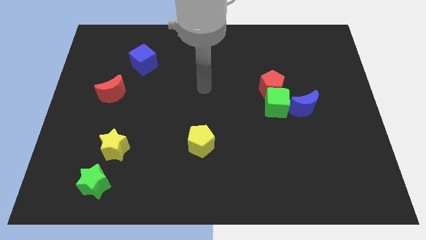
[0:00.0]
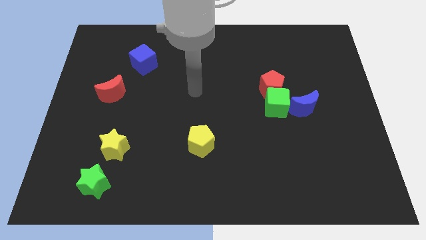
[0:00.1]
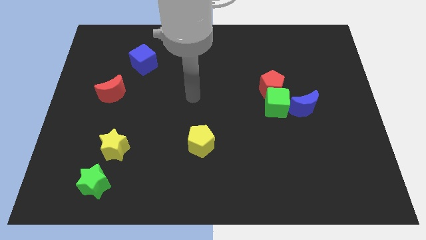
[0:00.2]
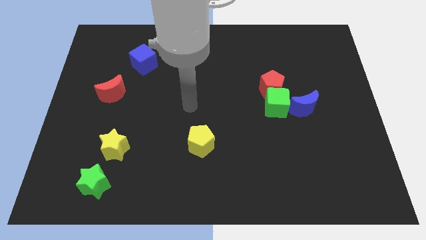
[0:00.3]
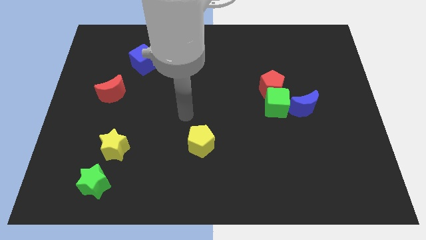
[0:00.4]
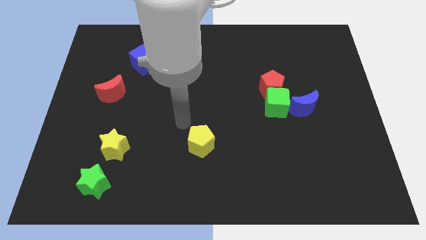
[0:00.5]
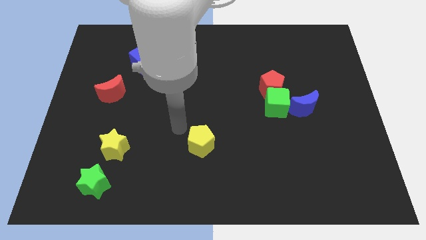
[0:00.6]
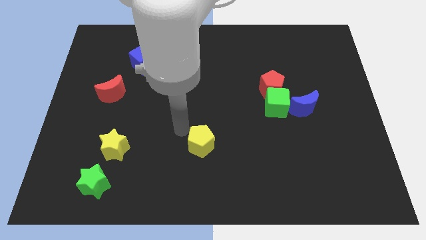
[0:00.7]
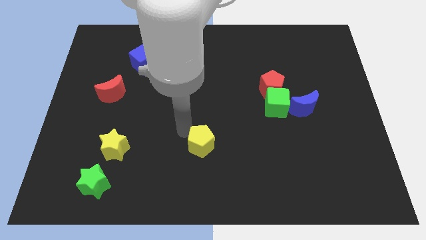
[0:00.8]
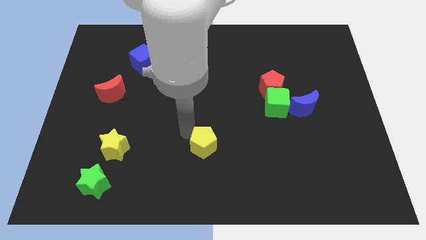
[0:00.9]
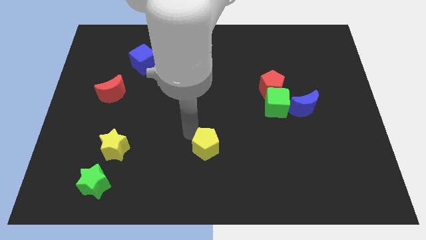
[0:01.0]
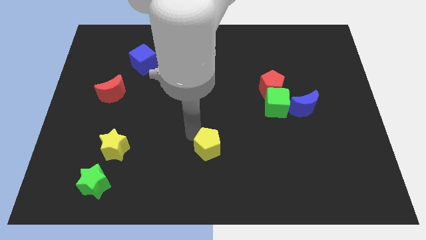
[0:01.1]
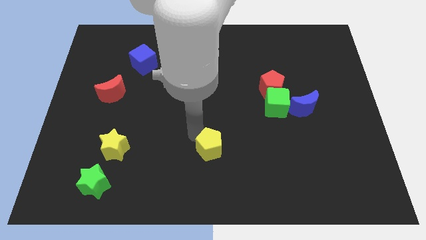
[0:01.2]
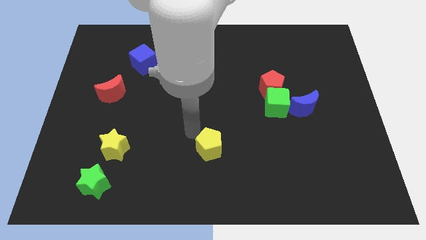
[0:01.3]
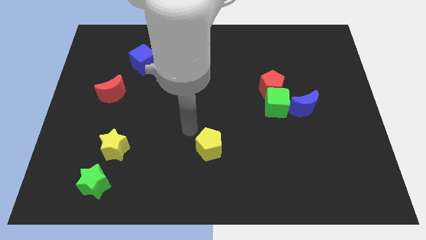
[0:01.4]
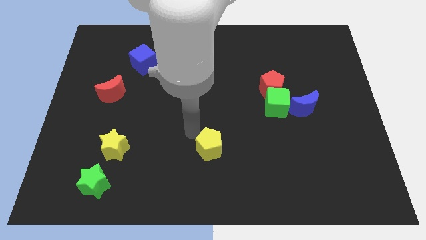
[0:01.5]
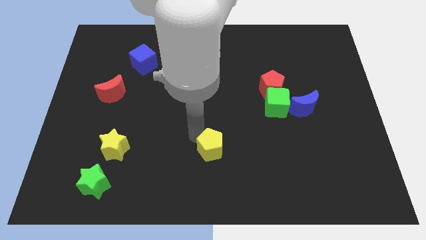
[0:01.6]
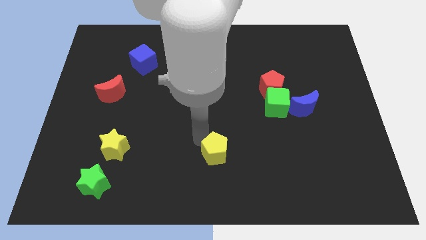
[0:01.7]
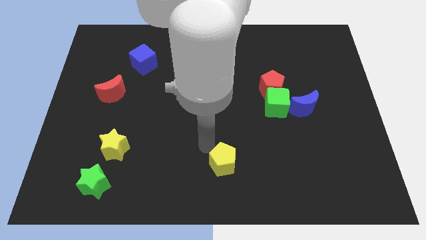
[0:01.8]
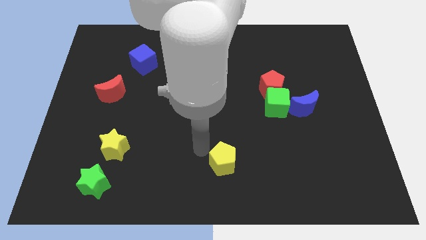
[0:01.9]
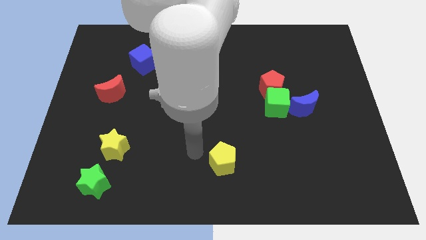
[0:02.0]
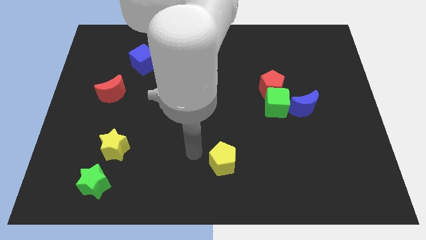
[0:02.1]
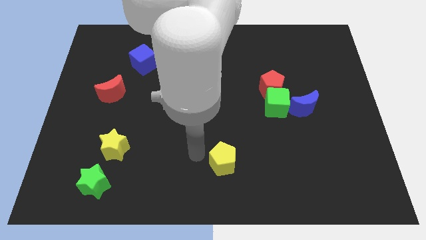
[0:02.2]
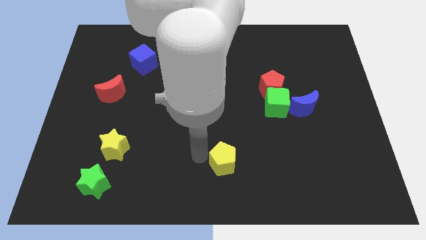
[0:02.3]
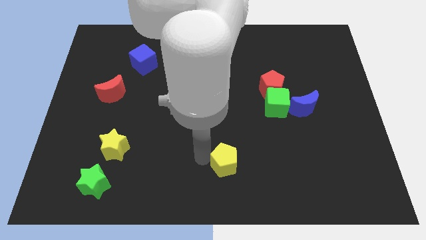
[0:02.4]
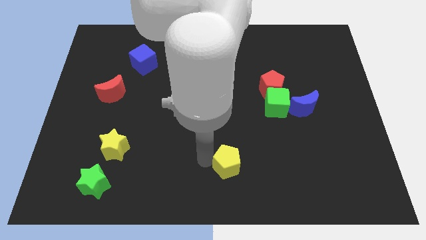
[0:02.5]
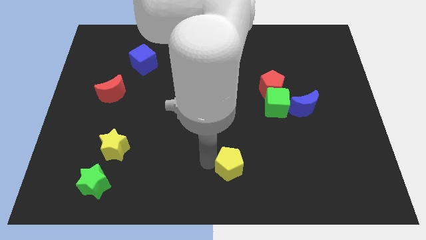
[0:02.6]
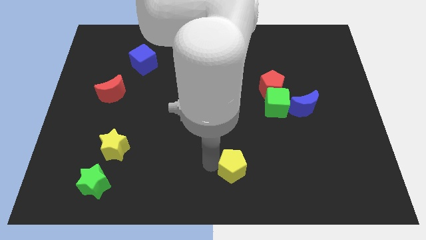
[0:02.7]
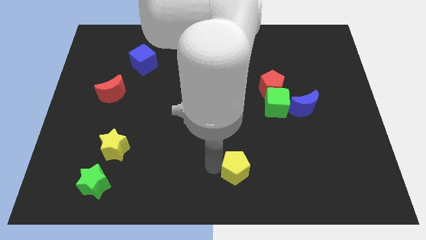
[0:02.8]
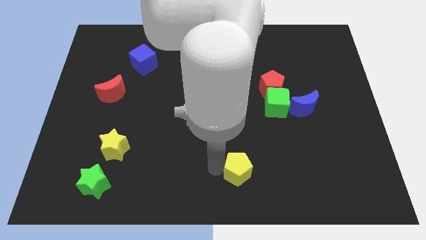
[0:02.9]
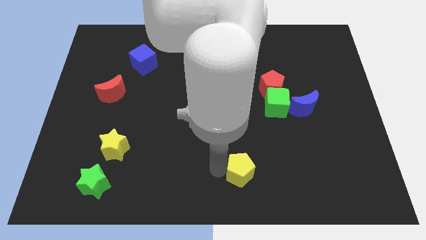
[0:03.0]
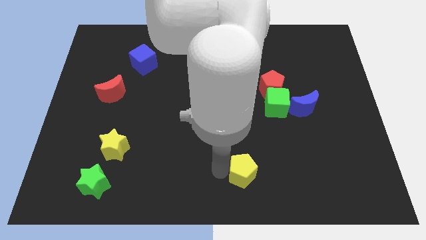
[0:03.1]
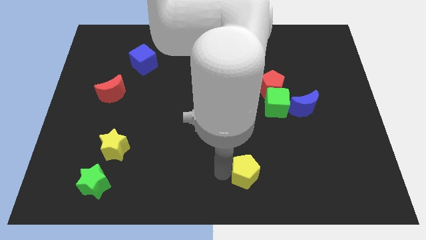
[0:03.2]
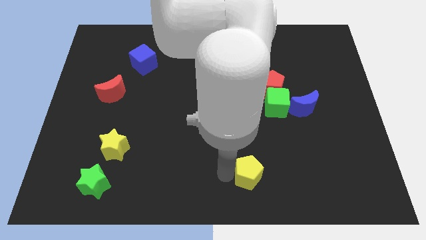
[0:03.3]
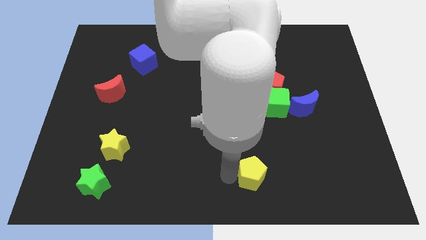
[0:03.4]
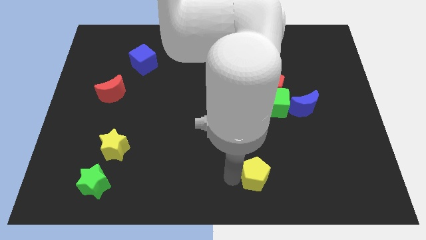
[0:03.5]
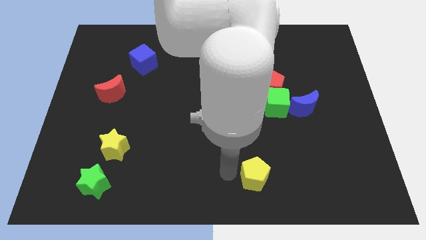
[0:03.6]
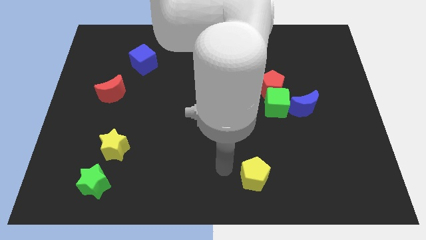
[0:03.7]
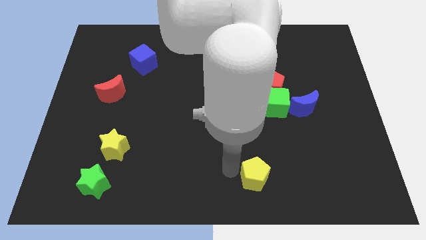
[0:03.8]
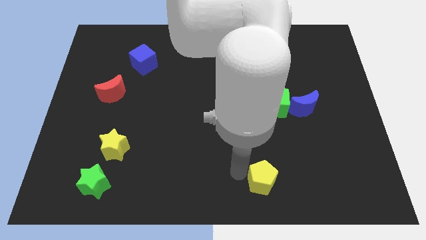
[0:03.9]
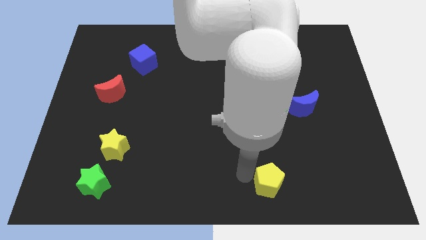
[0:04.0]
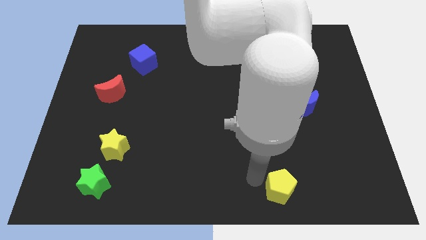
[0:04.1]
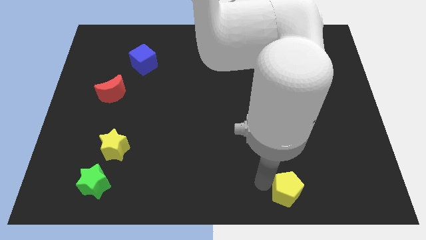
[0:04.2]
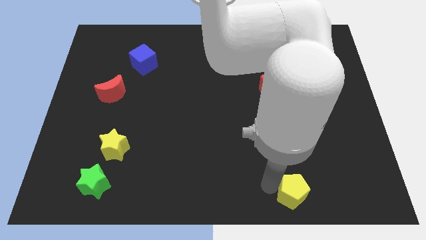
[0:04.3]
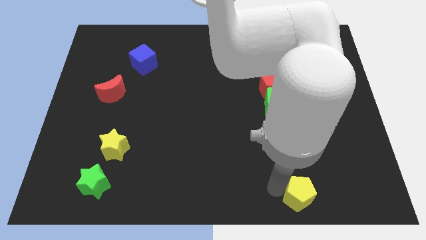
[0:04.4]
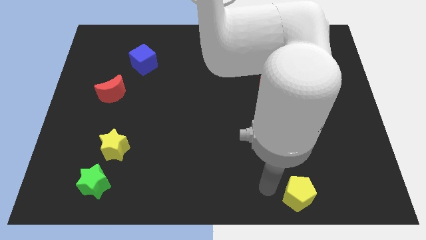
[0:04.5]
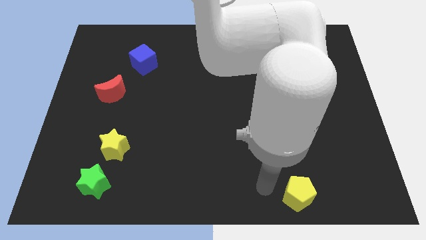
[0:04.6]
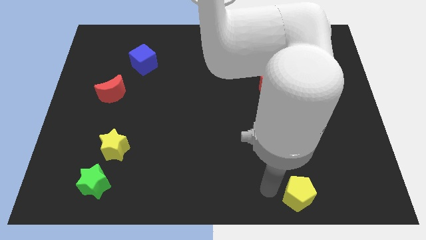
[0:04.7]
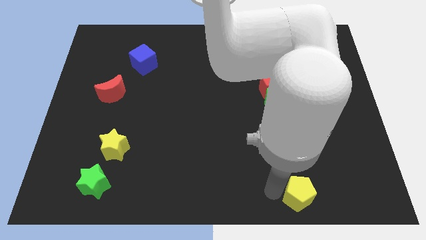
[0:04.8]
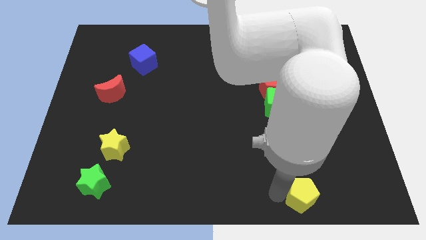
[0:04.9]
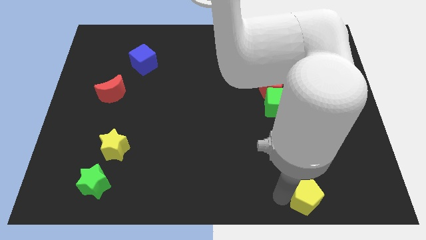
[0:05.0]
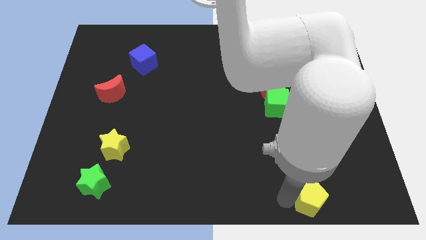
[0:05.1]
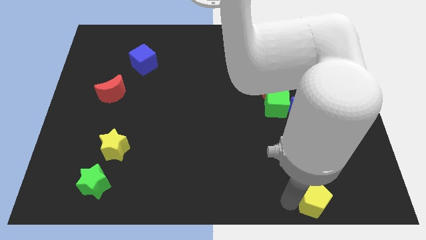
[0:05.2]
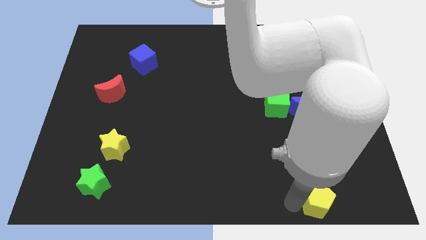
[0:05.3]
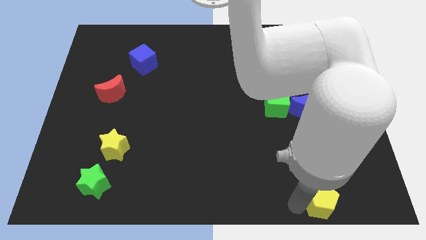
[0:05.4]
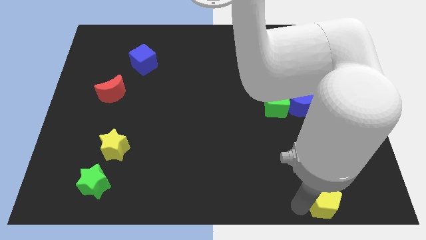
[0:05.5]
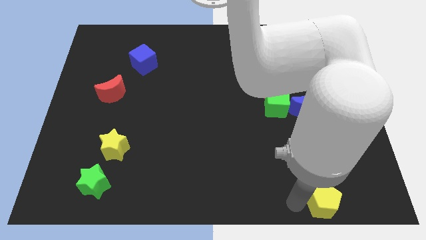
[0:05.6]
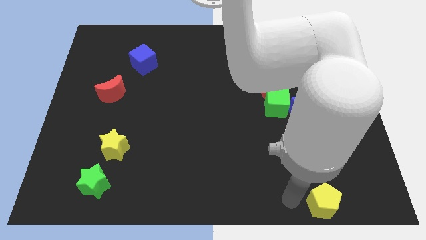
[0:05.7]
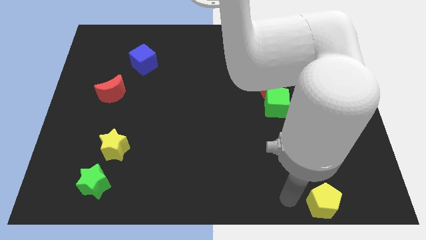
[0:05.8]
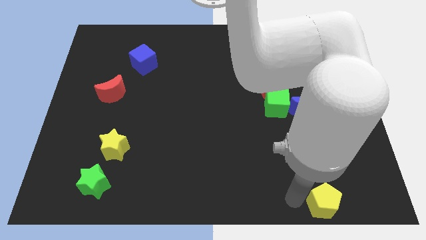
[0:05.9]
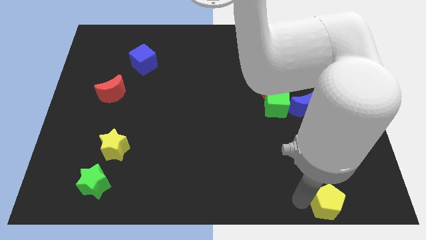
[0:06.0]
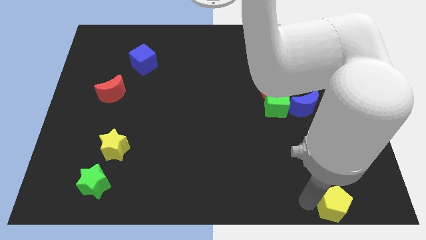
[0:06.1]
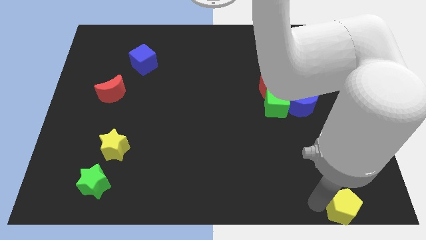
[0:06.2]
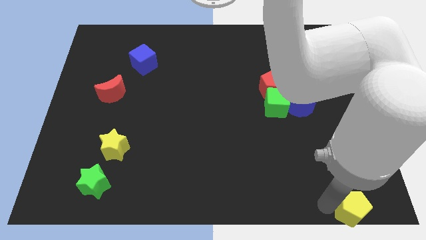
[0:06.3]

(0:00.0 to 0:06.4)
put the yellow pentagon to the bottom right of the board

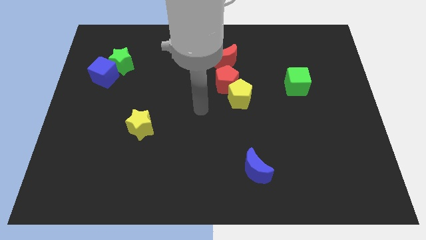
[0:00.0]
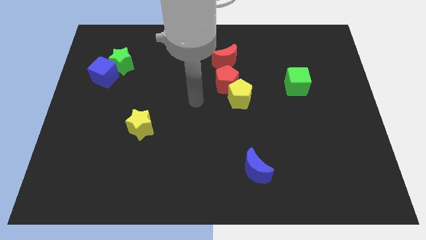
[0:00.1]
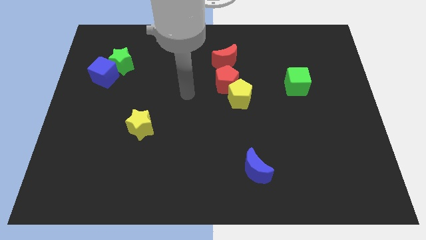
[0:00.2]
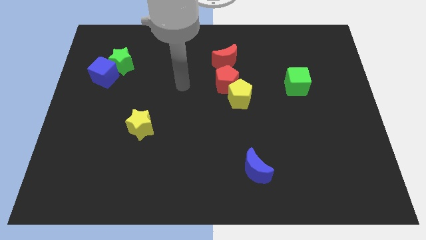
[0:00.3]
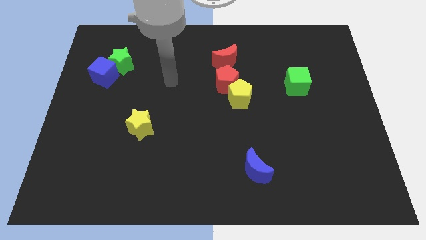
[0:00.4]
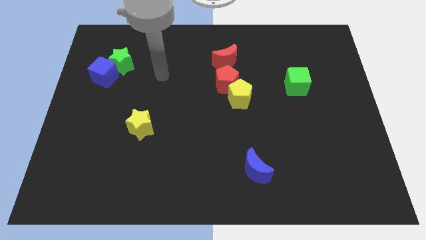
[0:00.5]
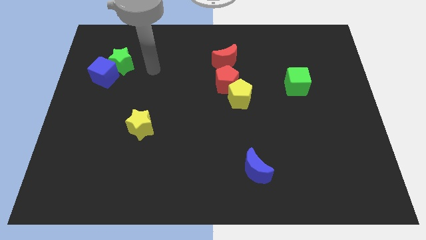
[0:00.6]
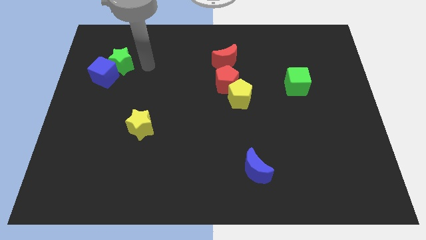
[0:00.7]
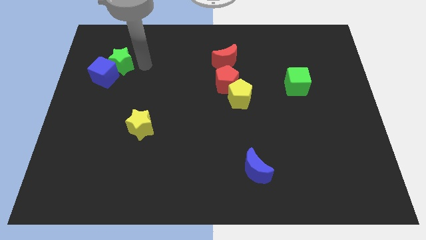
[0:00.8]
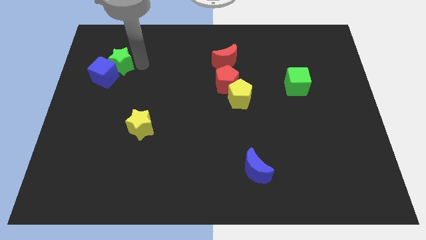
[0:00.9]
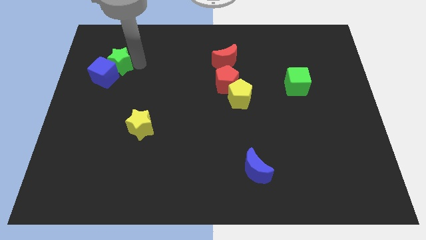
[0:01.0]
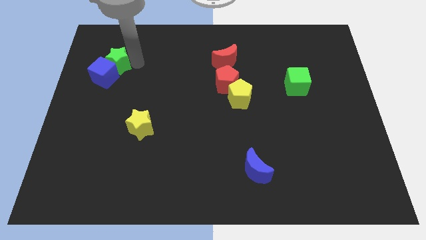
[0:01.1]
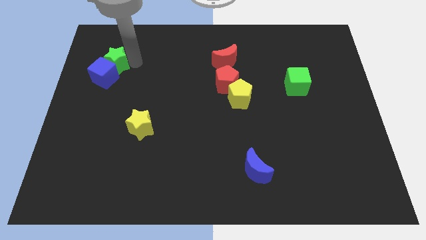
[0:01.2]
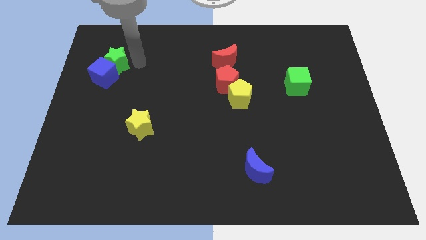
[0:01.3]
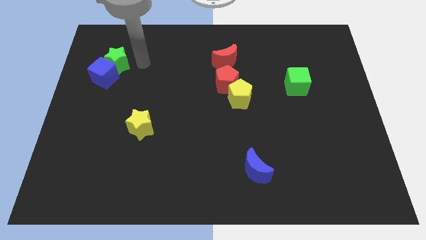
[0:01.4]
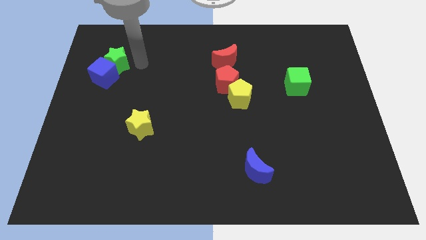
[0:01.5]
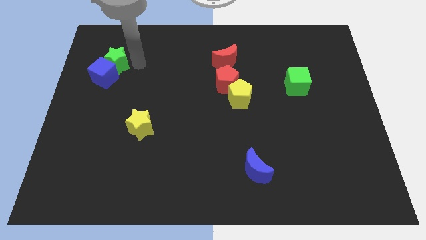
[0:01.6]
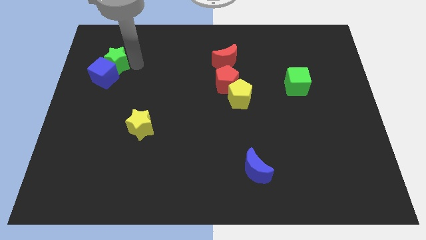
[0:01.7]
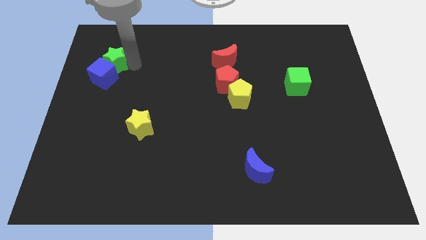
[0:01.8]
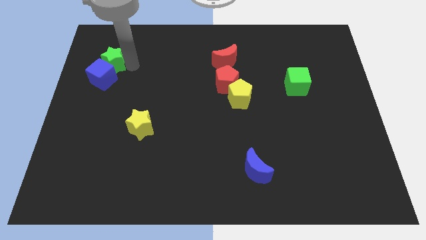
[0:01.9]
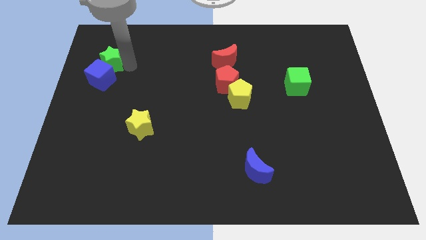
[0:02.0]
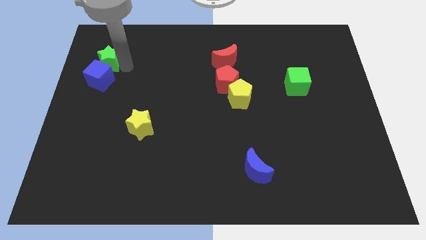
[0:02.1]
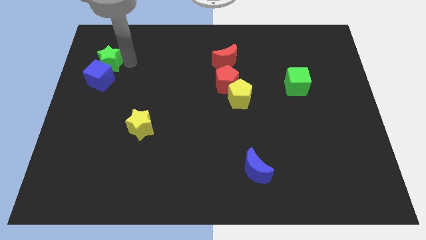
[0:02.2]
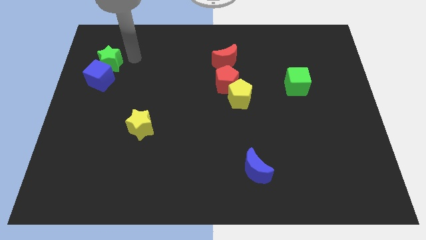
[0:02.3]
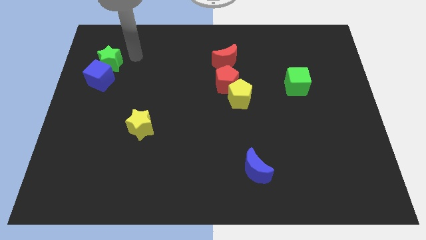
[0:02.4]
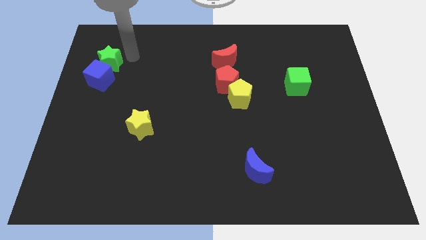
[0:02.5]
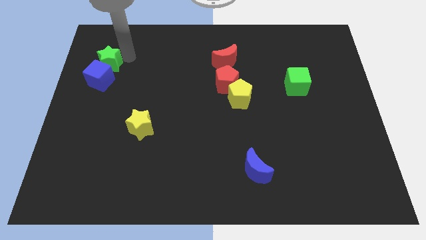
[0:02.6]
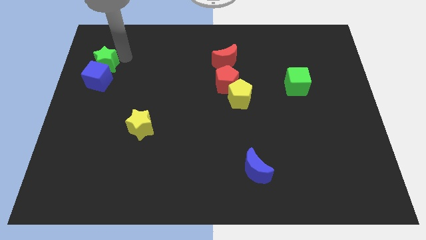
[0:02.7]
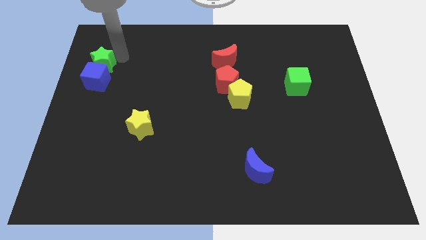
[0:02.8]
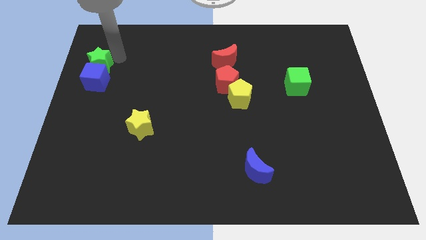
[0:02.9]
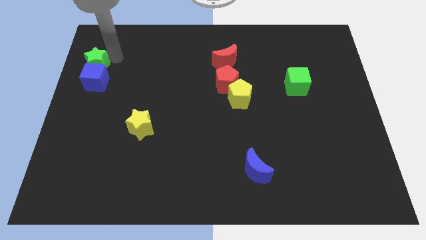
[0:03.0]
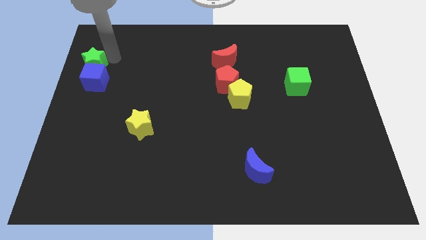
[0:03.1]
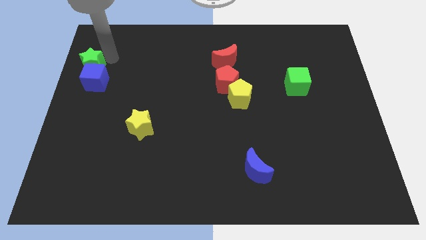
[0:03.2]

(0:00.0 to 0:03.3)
slide the green star to the left side of the board
